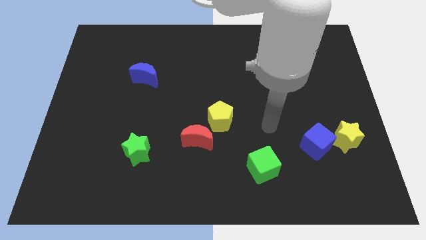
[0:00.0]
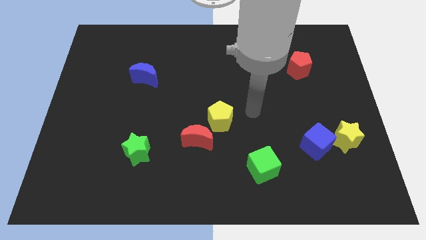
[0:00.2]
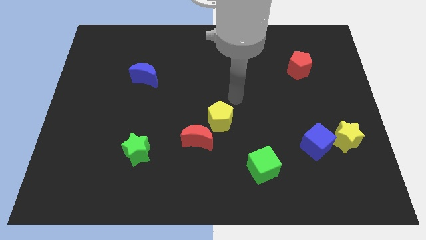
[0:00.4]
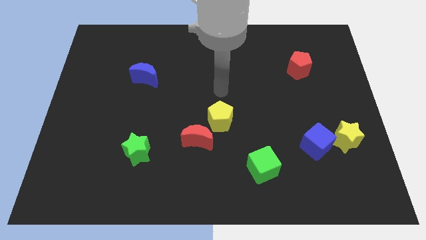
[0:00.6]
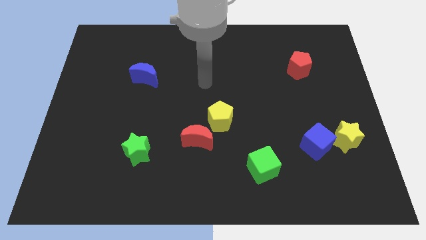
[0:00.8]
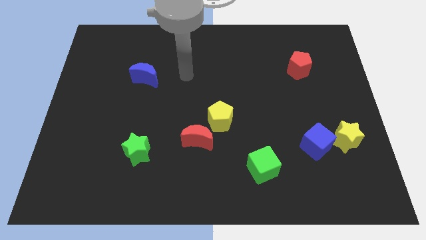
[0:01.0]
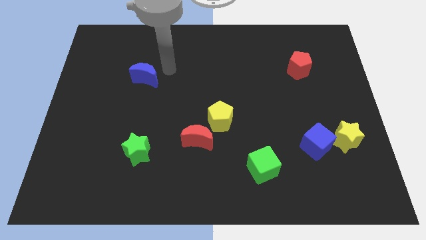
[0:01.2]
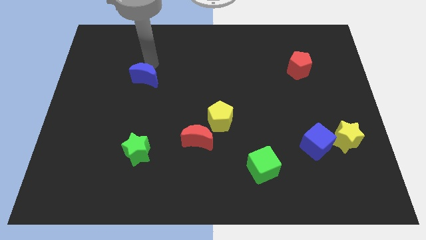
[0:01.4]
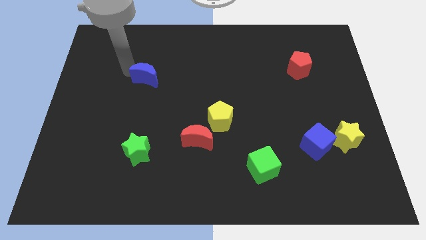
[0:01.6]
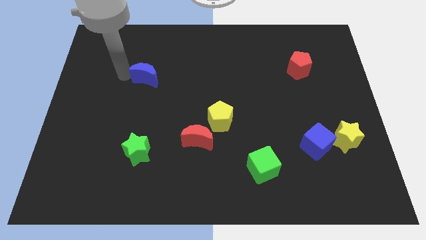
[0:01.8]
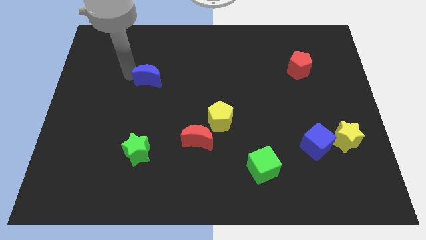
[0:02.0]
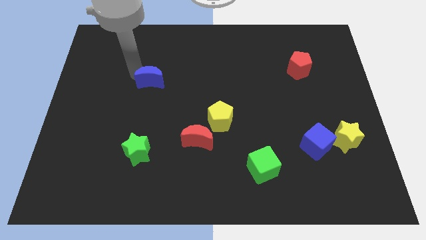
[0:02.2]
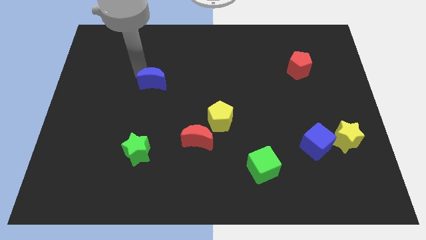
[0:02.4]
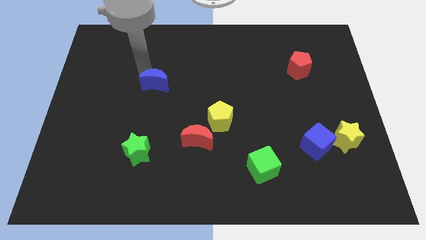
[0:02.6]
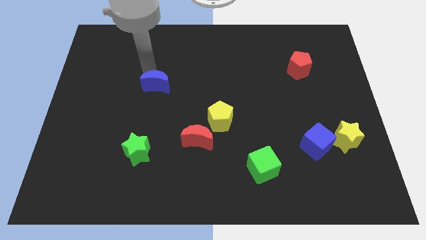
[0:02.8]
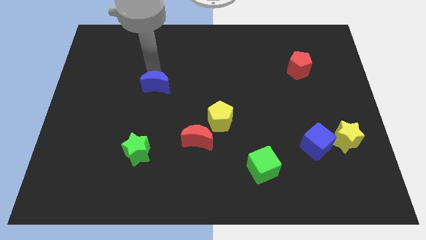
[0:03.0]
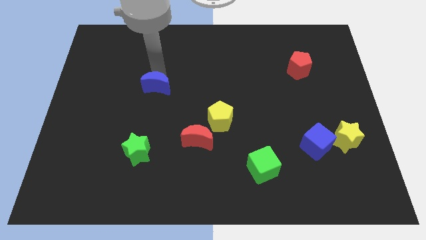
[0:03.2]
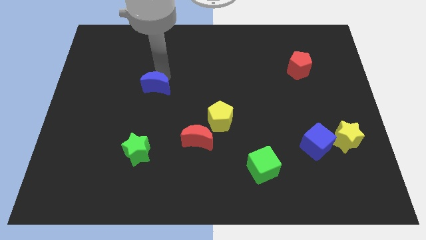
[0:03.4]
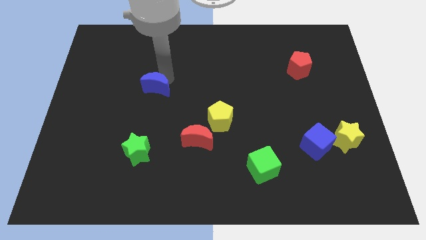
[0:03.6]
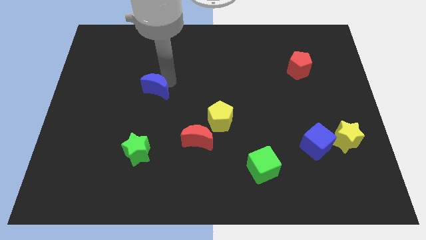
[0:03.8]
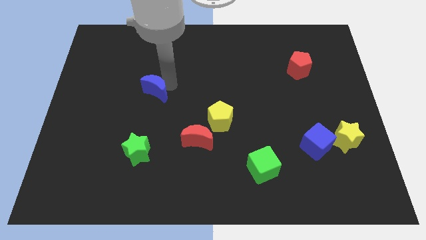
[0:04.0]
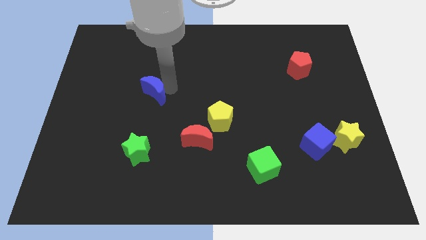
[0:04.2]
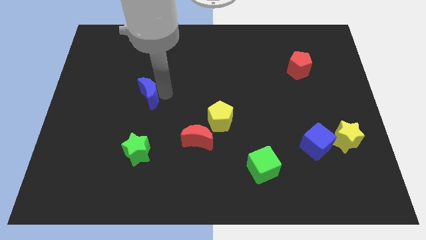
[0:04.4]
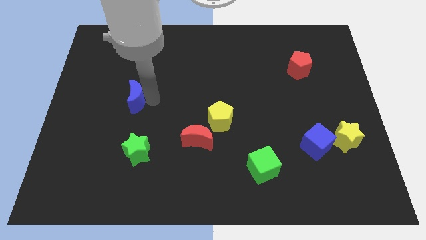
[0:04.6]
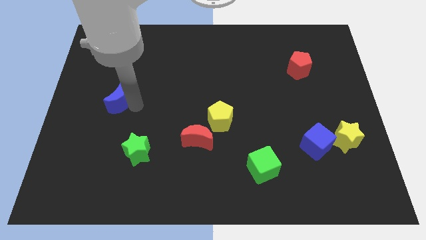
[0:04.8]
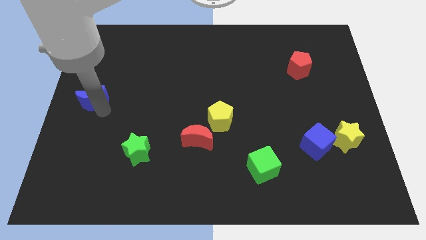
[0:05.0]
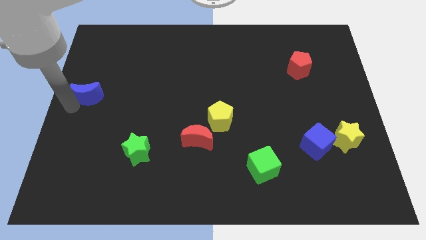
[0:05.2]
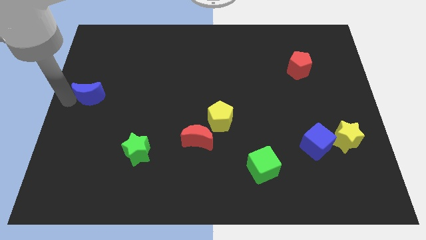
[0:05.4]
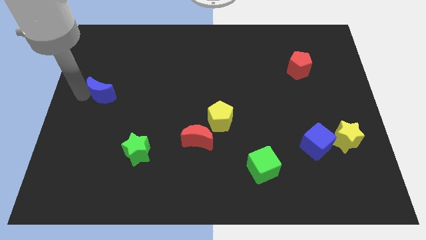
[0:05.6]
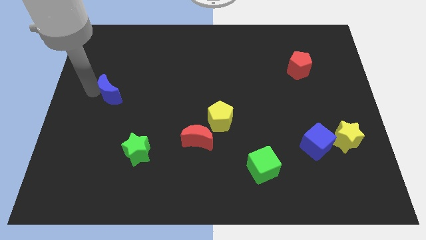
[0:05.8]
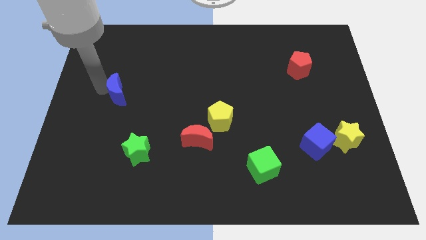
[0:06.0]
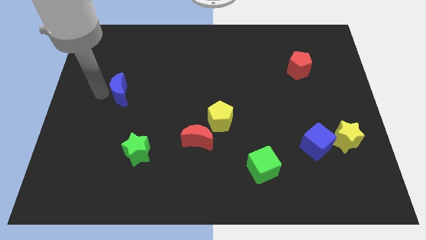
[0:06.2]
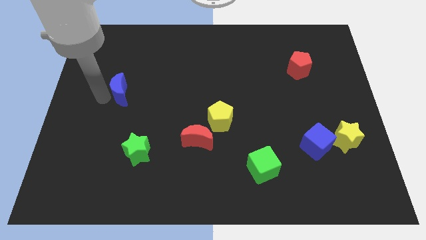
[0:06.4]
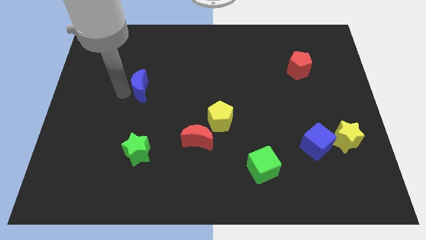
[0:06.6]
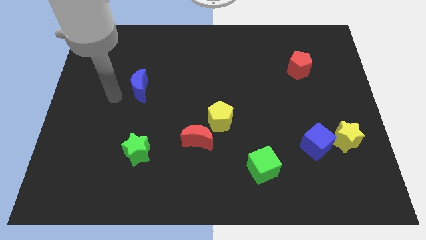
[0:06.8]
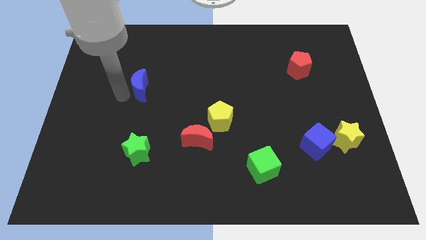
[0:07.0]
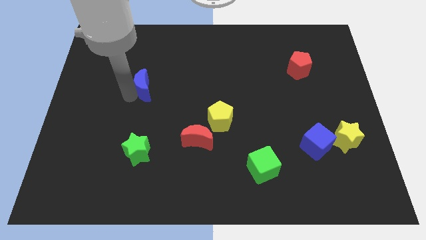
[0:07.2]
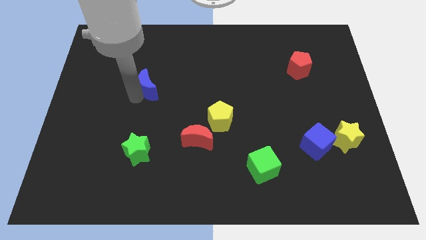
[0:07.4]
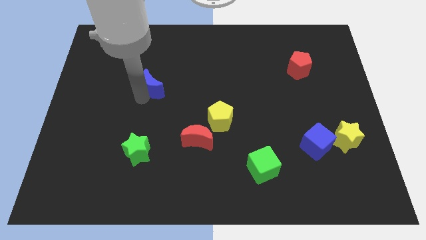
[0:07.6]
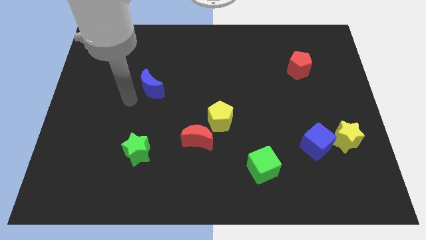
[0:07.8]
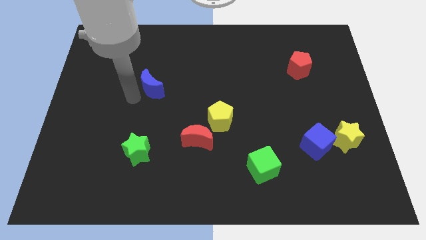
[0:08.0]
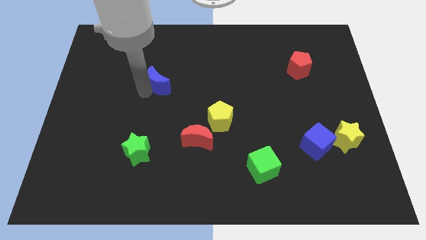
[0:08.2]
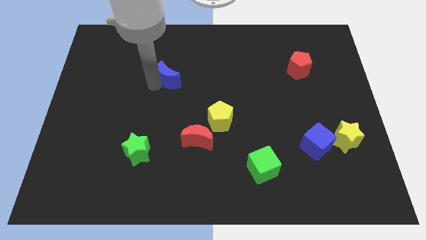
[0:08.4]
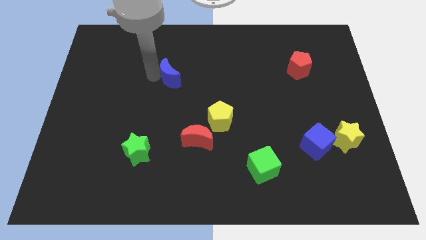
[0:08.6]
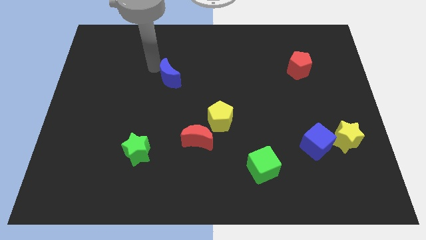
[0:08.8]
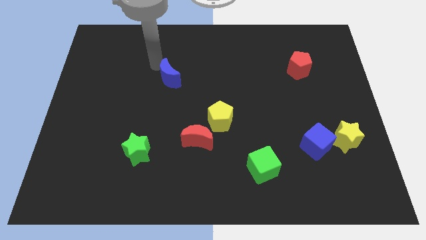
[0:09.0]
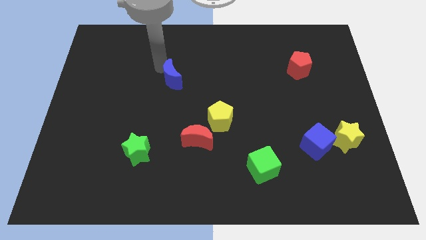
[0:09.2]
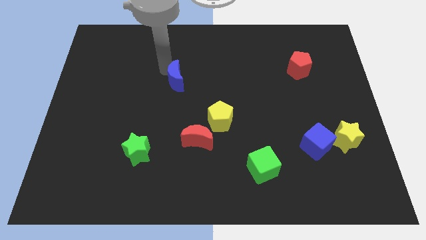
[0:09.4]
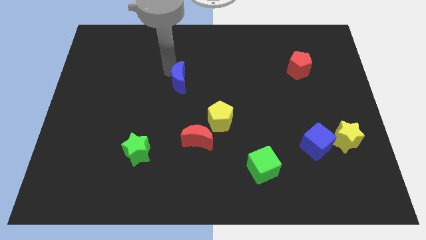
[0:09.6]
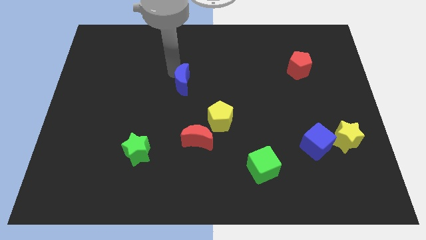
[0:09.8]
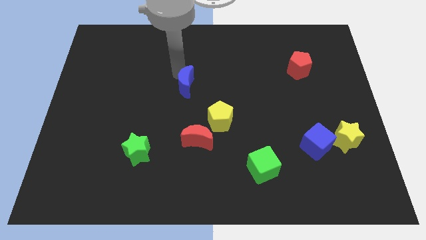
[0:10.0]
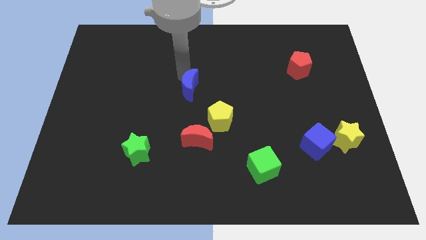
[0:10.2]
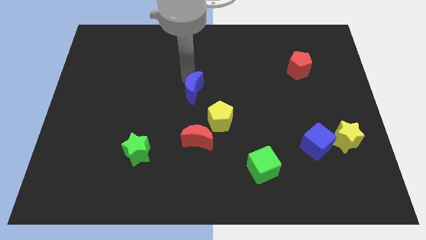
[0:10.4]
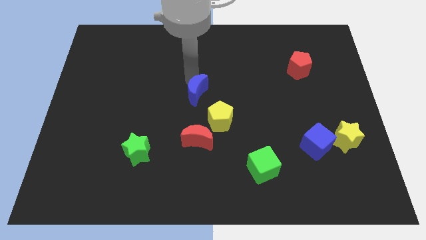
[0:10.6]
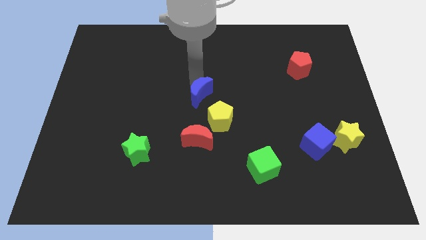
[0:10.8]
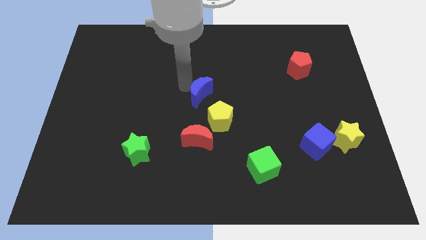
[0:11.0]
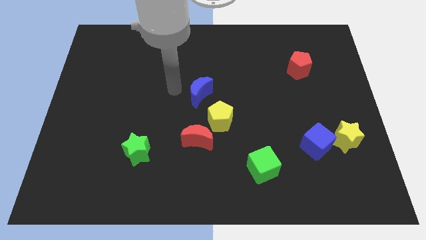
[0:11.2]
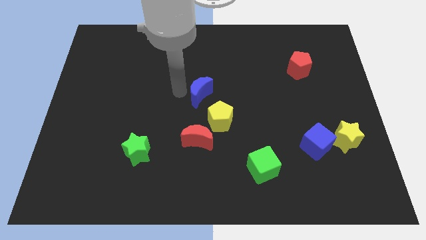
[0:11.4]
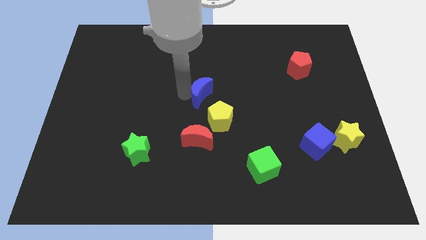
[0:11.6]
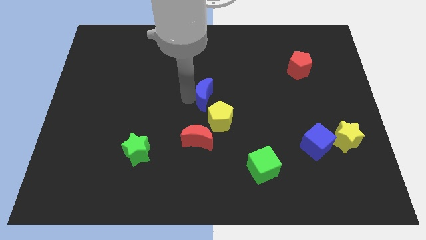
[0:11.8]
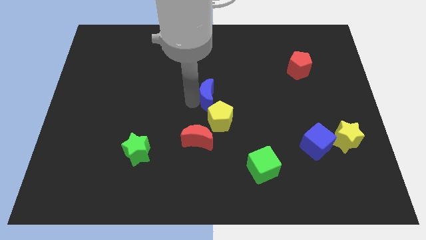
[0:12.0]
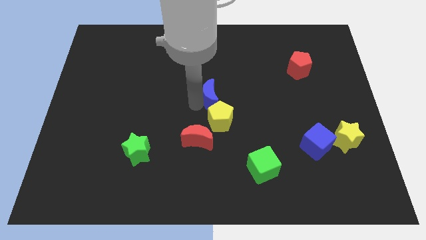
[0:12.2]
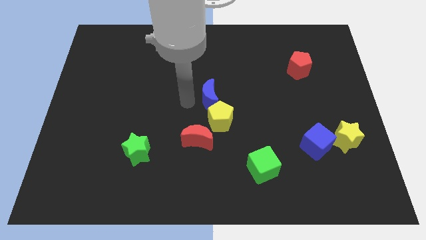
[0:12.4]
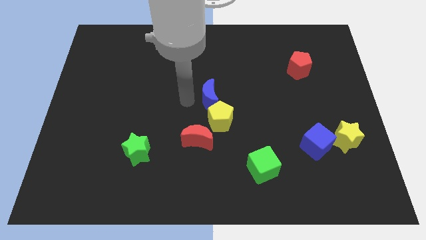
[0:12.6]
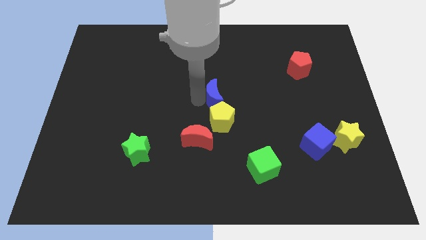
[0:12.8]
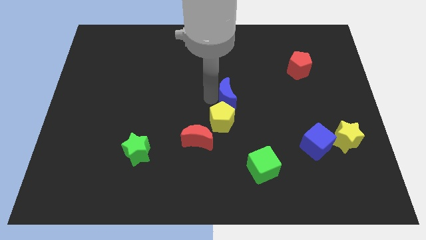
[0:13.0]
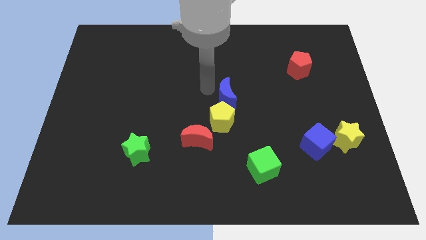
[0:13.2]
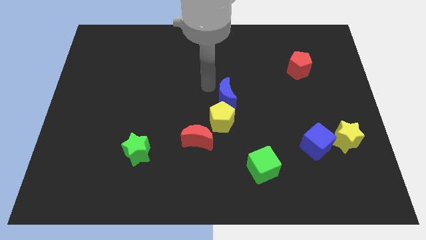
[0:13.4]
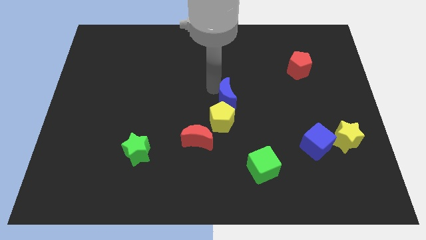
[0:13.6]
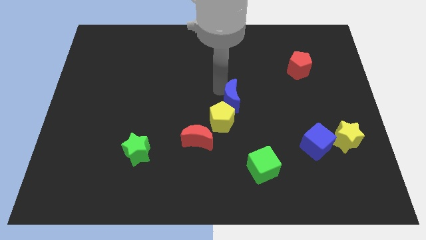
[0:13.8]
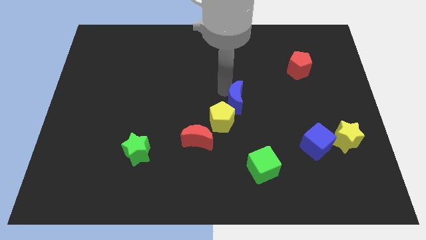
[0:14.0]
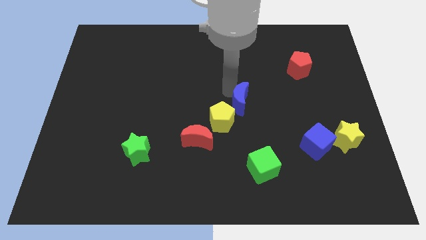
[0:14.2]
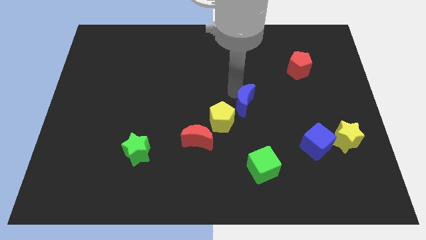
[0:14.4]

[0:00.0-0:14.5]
put the blue moon right of the yellow pentagon
